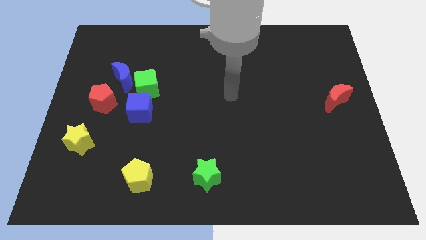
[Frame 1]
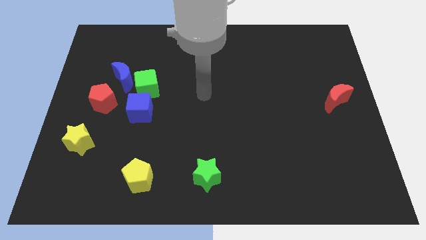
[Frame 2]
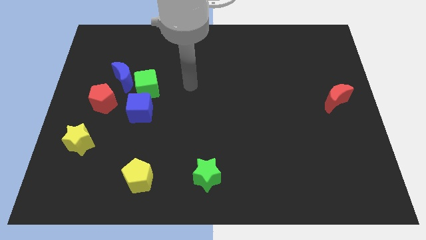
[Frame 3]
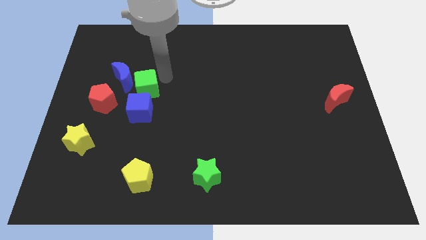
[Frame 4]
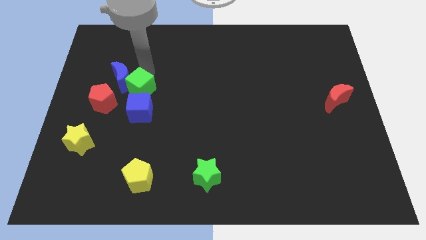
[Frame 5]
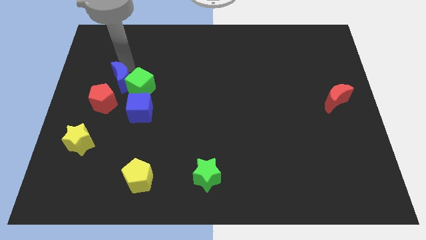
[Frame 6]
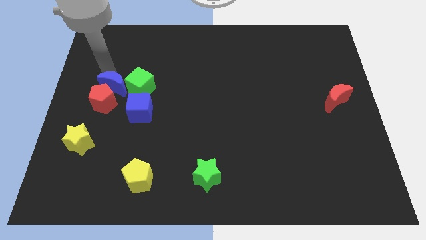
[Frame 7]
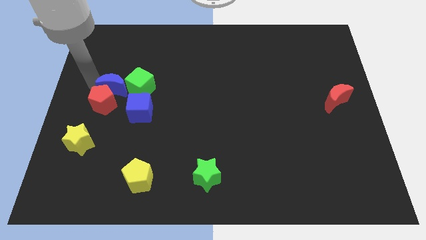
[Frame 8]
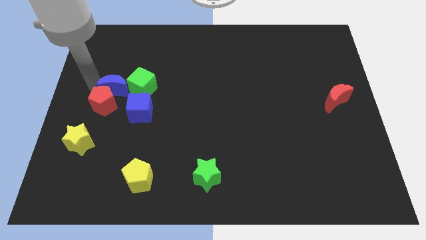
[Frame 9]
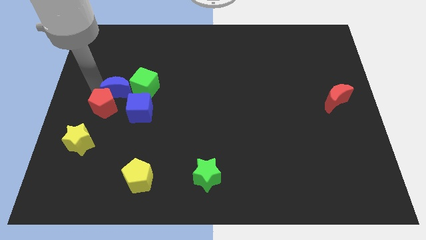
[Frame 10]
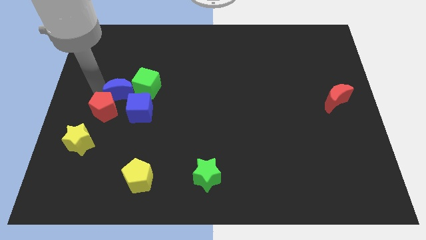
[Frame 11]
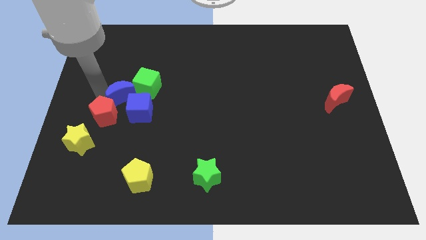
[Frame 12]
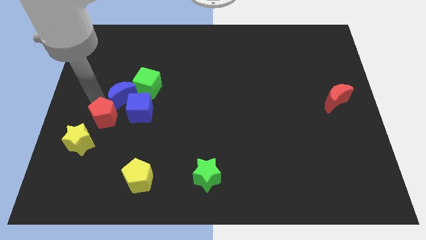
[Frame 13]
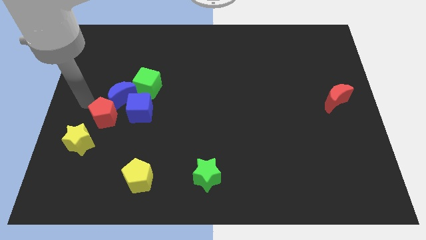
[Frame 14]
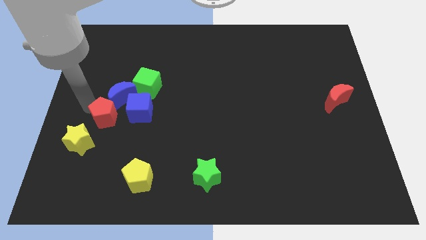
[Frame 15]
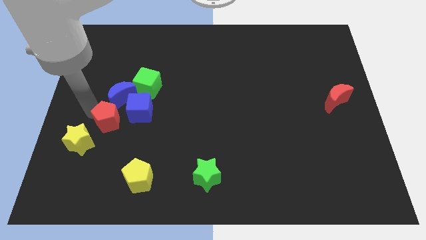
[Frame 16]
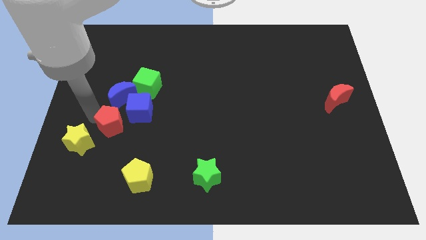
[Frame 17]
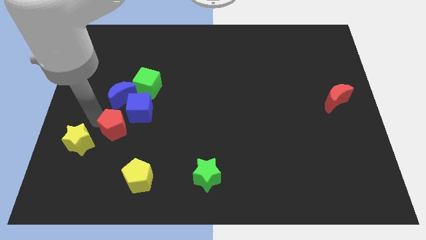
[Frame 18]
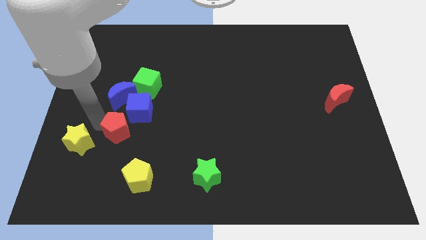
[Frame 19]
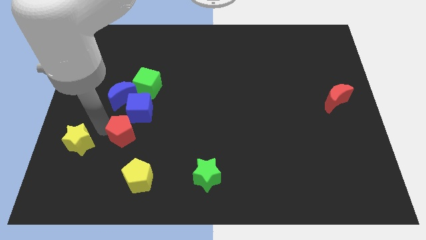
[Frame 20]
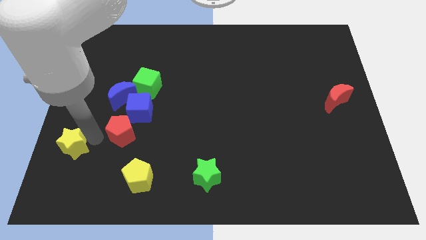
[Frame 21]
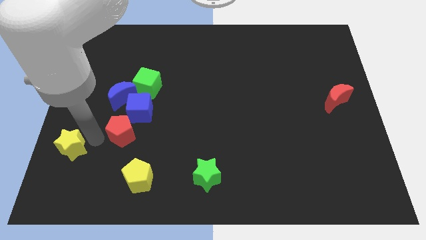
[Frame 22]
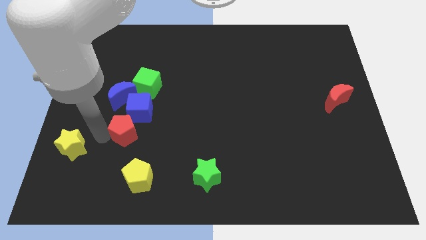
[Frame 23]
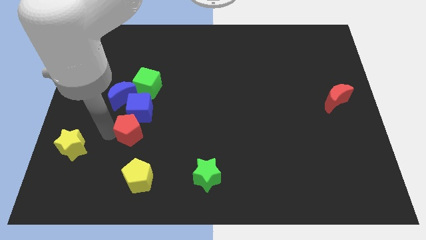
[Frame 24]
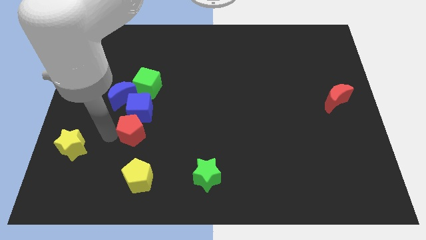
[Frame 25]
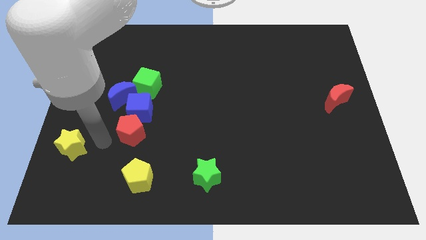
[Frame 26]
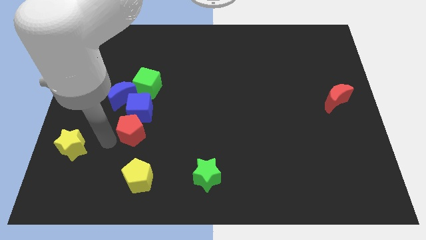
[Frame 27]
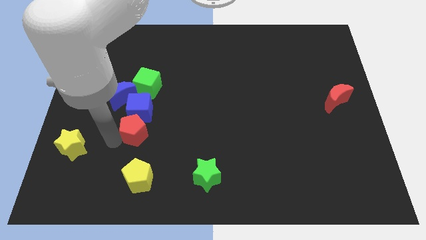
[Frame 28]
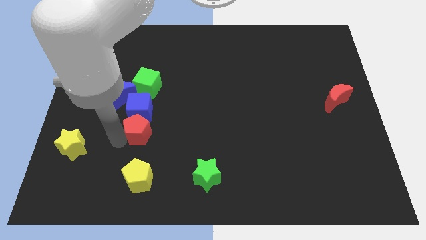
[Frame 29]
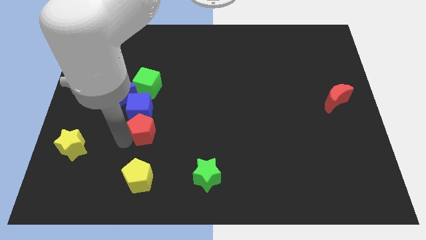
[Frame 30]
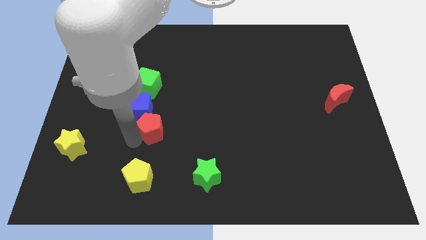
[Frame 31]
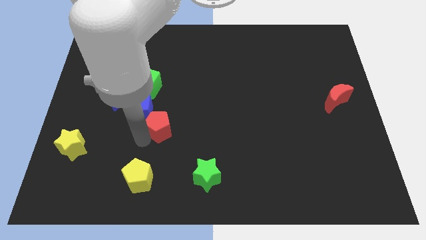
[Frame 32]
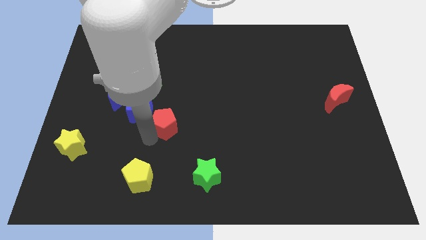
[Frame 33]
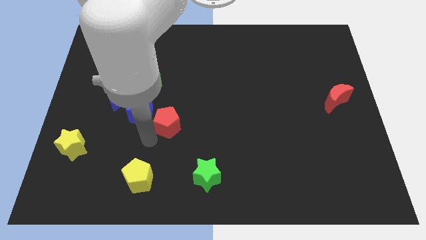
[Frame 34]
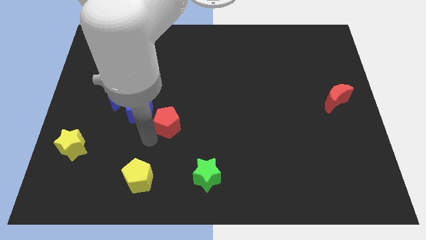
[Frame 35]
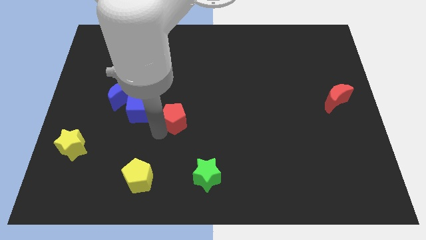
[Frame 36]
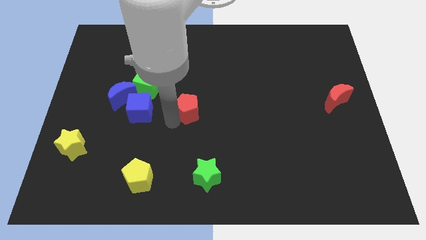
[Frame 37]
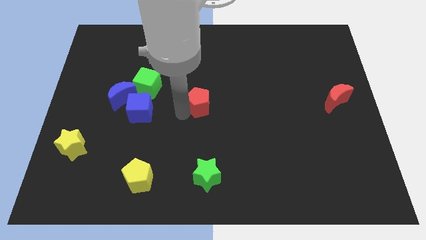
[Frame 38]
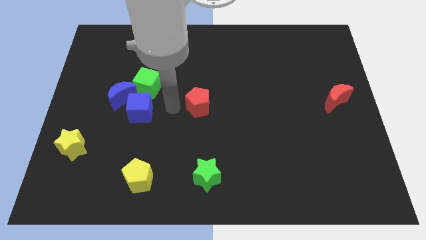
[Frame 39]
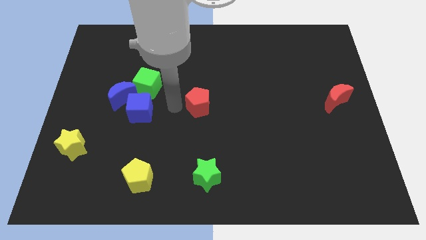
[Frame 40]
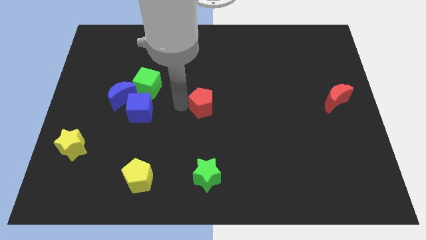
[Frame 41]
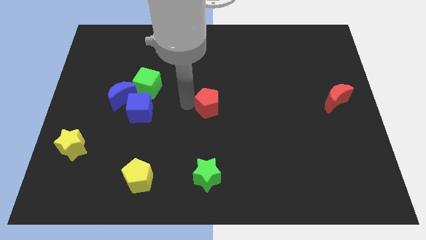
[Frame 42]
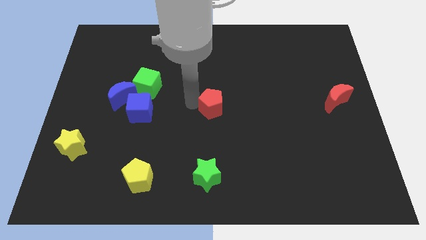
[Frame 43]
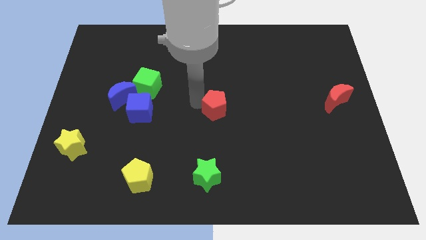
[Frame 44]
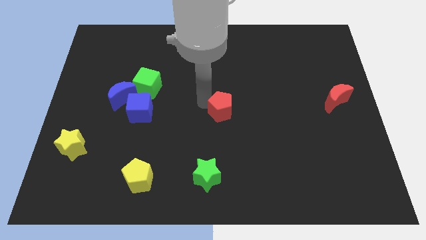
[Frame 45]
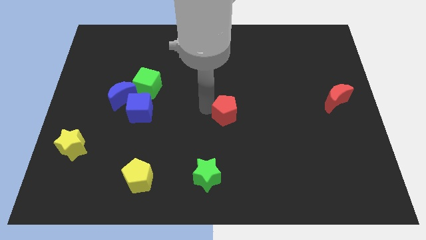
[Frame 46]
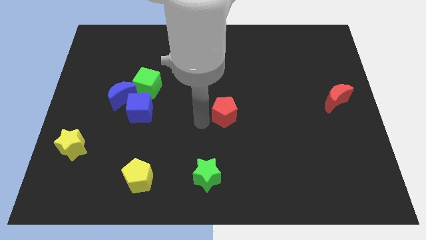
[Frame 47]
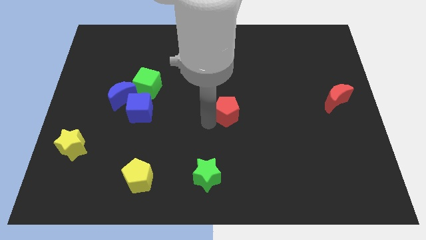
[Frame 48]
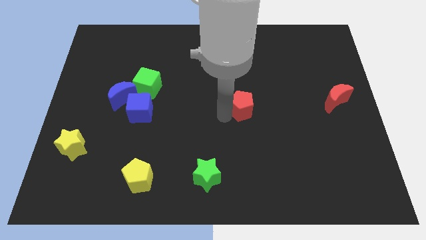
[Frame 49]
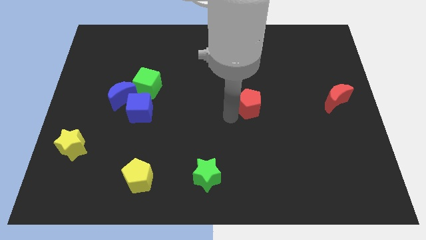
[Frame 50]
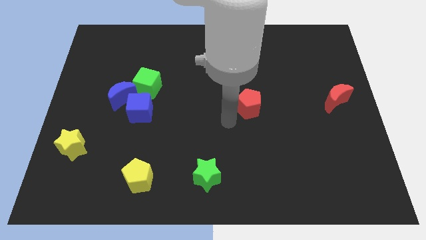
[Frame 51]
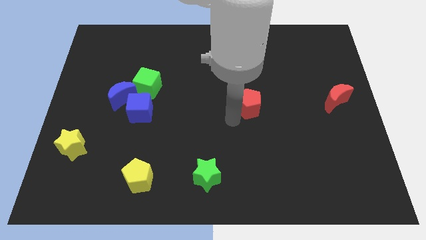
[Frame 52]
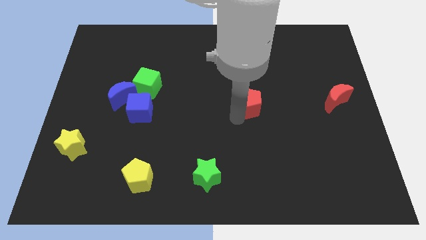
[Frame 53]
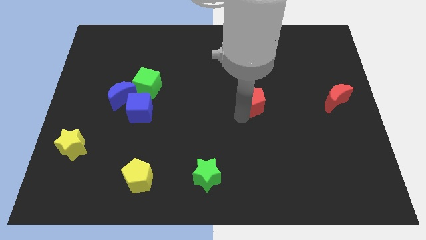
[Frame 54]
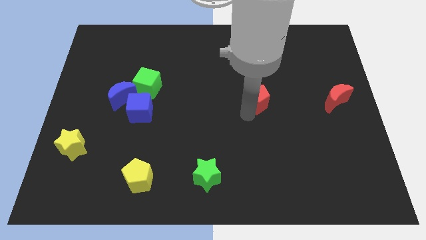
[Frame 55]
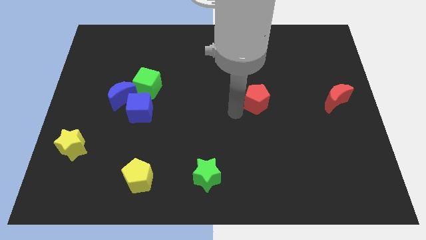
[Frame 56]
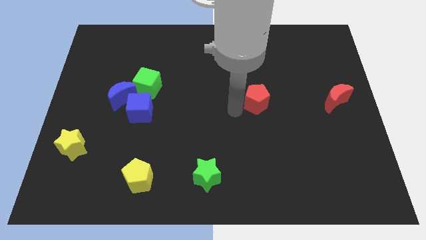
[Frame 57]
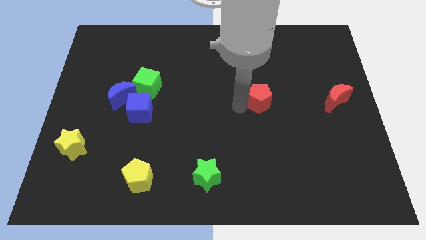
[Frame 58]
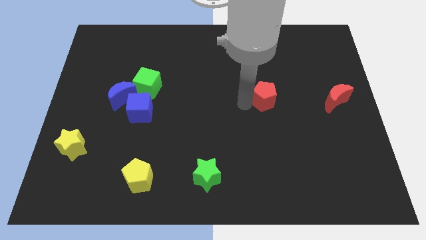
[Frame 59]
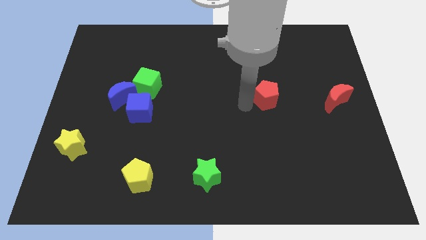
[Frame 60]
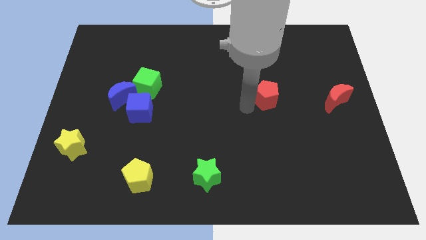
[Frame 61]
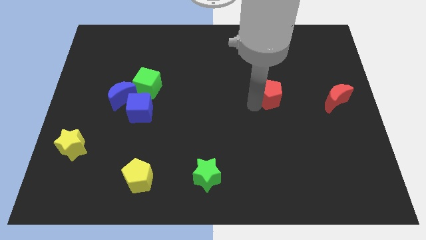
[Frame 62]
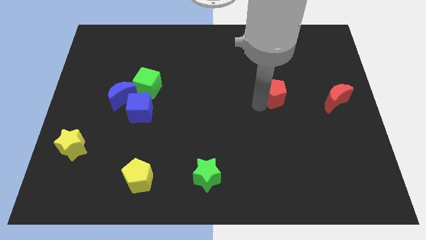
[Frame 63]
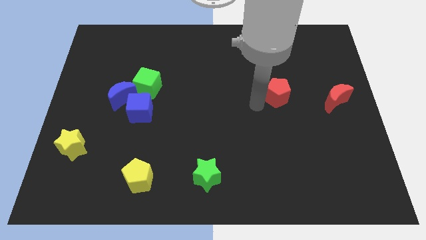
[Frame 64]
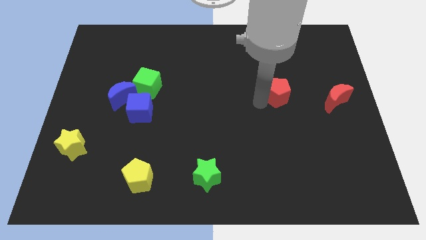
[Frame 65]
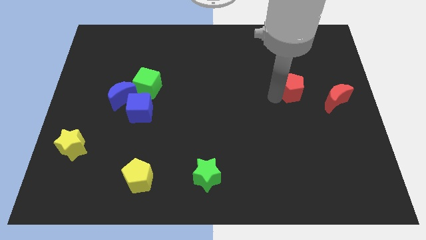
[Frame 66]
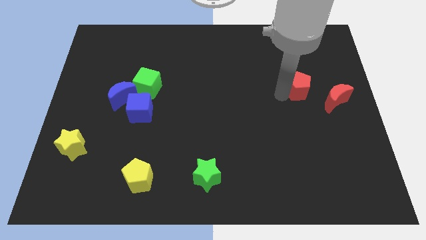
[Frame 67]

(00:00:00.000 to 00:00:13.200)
put the red pentagon to the top left of the red moon

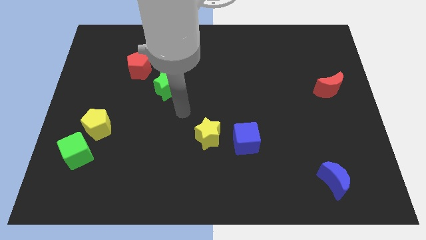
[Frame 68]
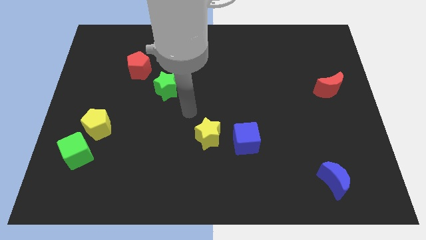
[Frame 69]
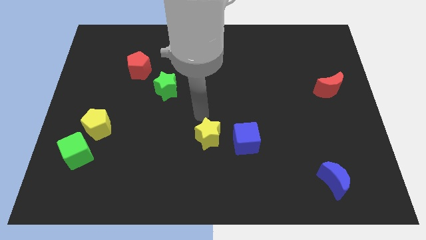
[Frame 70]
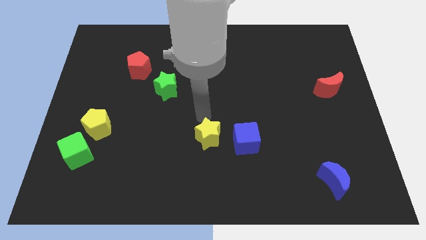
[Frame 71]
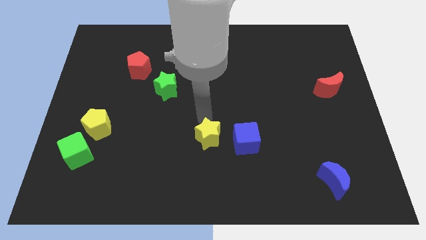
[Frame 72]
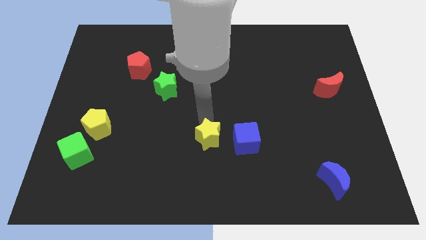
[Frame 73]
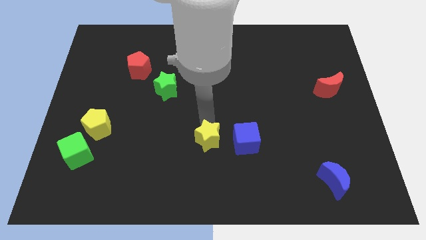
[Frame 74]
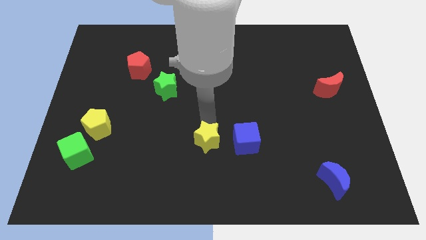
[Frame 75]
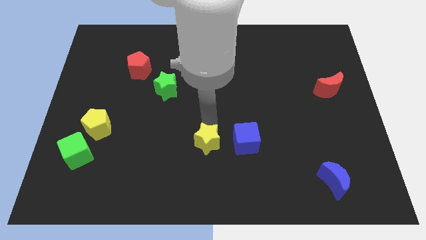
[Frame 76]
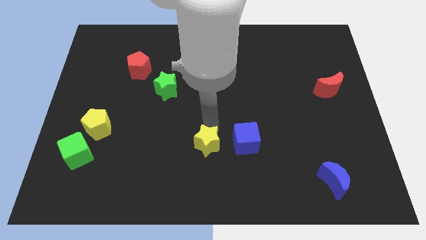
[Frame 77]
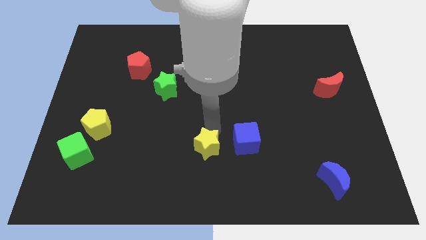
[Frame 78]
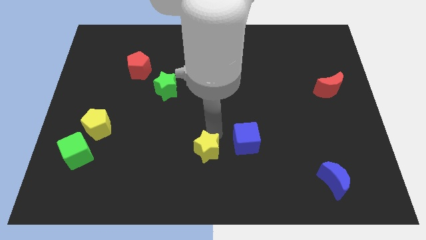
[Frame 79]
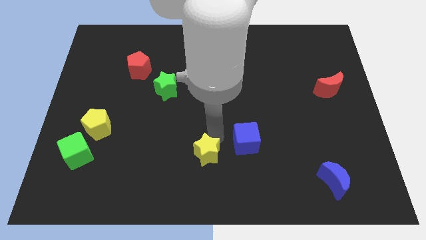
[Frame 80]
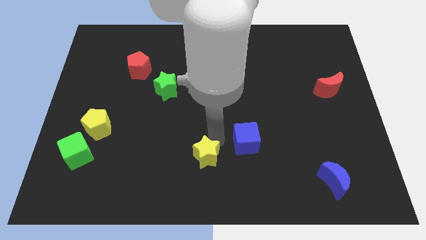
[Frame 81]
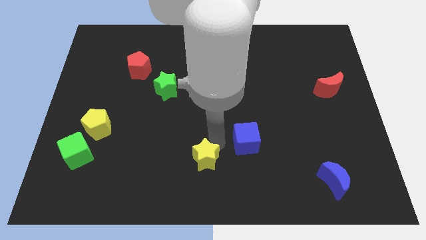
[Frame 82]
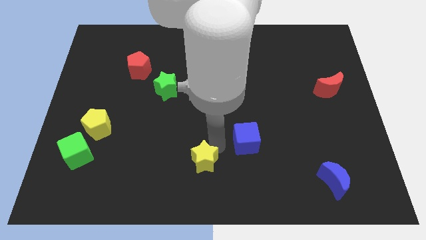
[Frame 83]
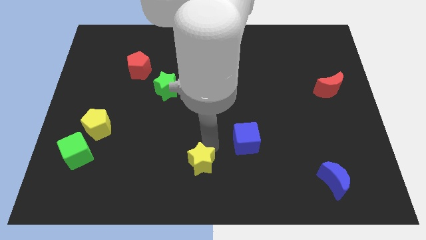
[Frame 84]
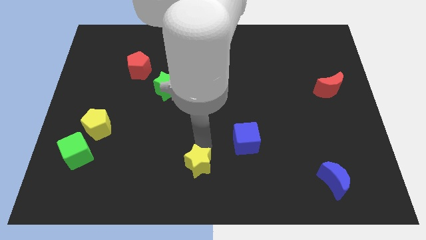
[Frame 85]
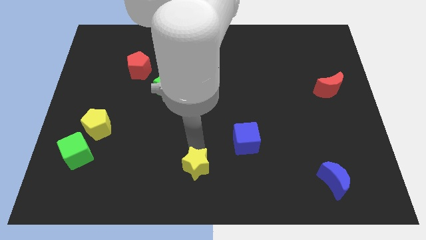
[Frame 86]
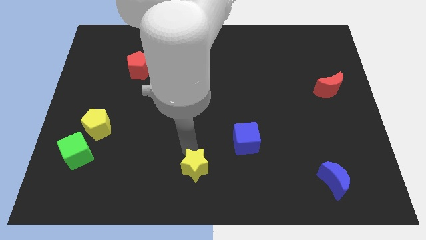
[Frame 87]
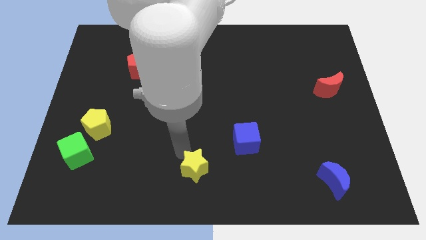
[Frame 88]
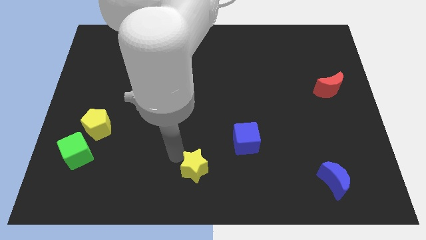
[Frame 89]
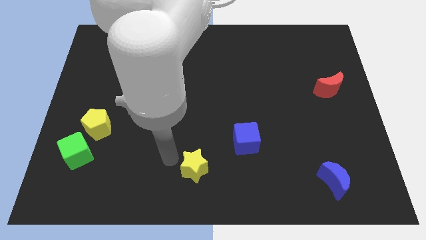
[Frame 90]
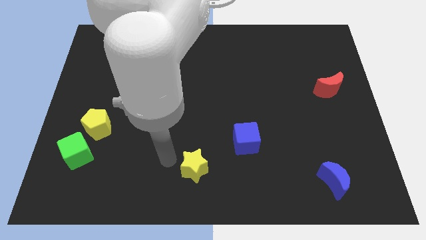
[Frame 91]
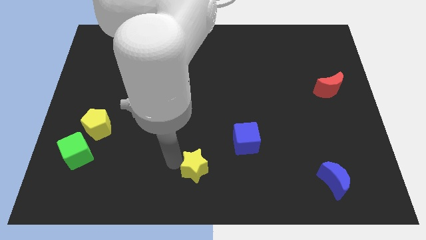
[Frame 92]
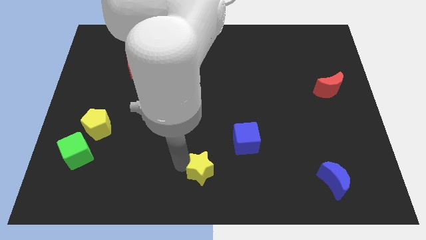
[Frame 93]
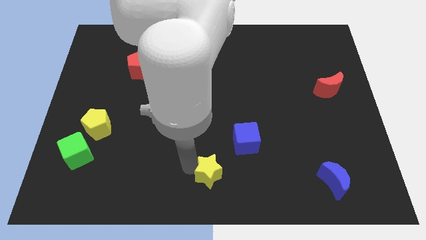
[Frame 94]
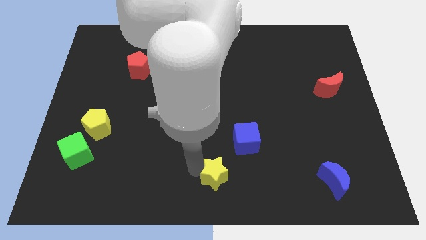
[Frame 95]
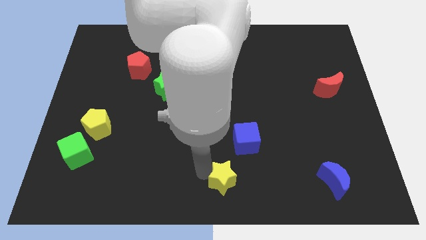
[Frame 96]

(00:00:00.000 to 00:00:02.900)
move the yellow star to the bottom side of the blue cube
